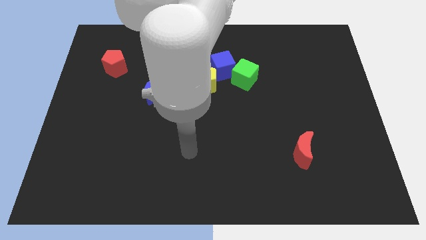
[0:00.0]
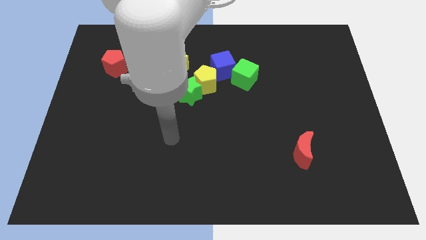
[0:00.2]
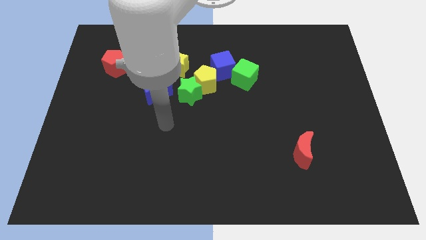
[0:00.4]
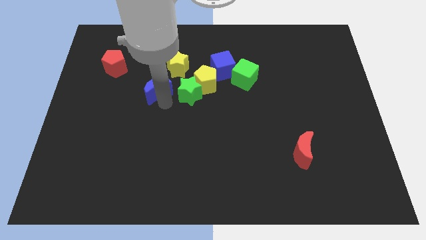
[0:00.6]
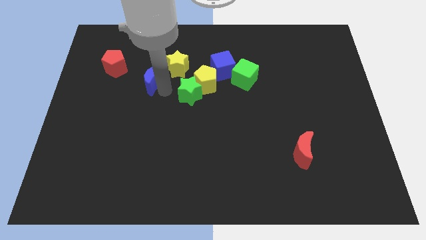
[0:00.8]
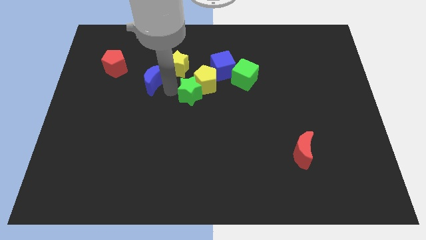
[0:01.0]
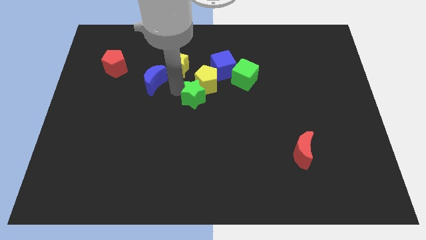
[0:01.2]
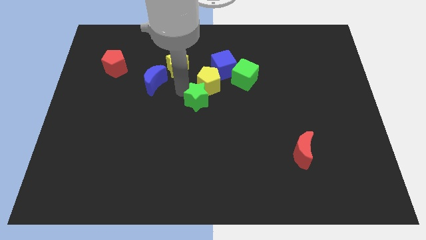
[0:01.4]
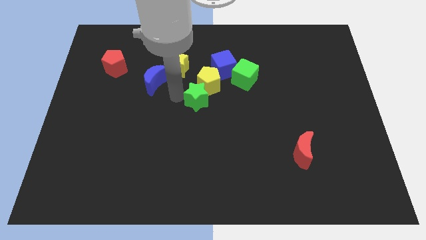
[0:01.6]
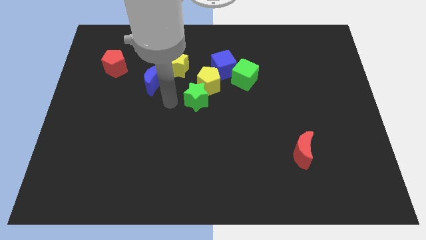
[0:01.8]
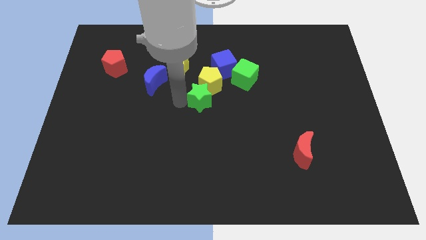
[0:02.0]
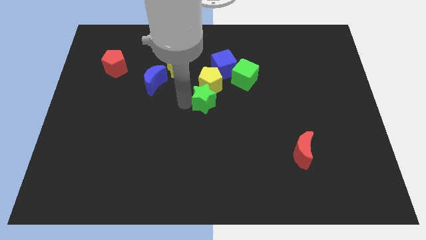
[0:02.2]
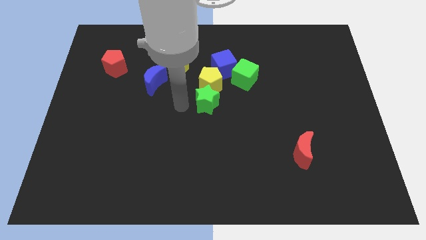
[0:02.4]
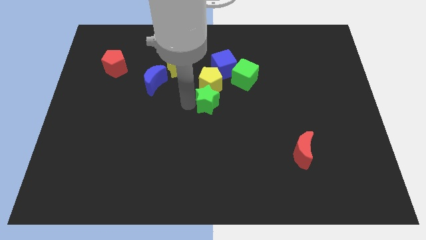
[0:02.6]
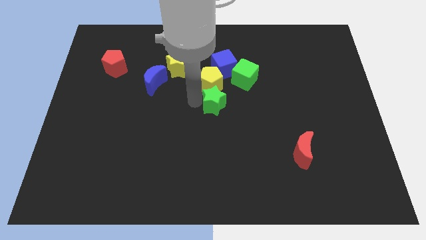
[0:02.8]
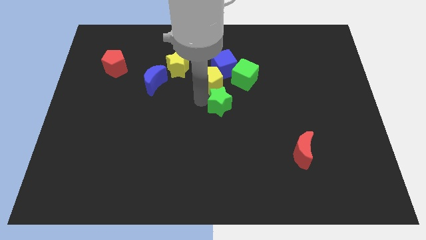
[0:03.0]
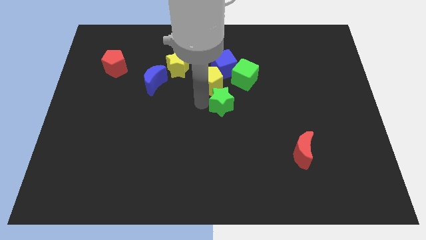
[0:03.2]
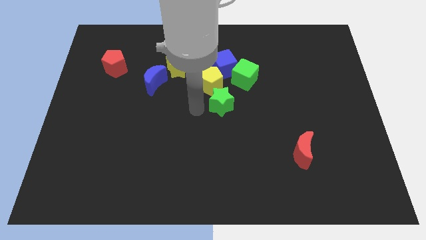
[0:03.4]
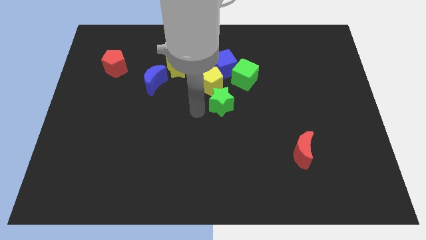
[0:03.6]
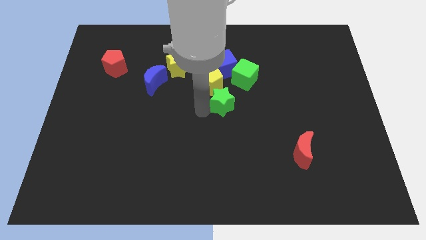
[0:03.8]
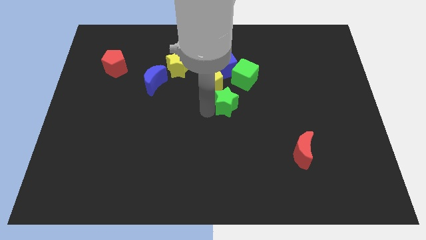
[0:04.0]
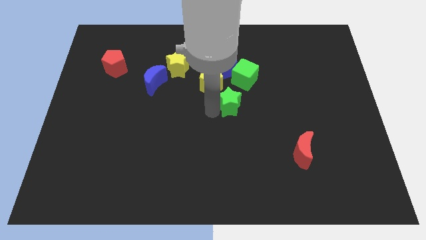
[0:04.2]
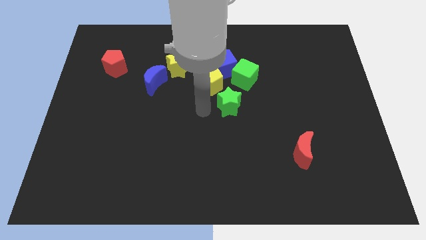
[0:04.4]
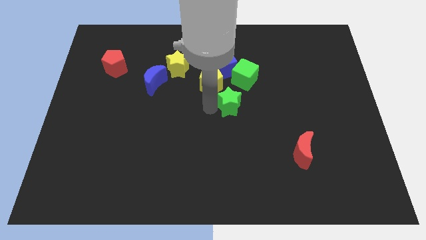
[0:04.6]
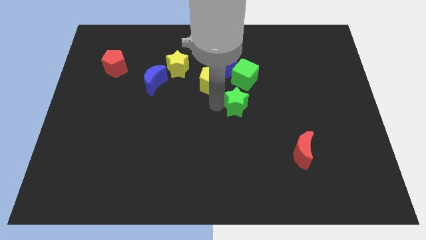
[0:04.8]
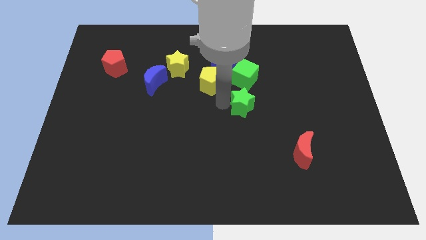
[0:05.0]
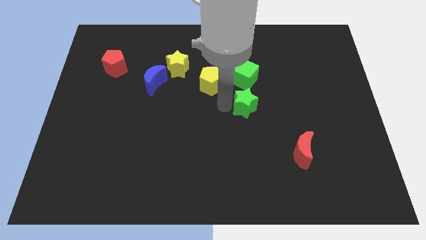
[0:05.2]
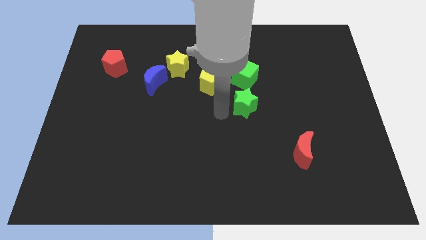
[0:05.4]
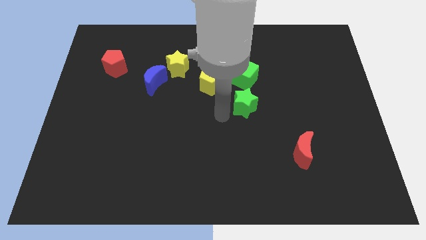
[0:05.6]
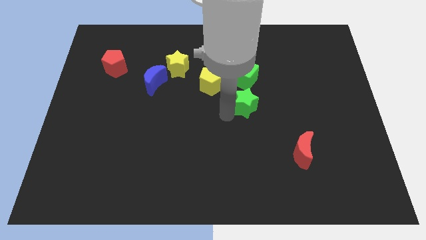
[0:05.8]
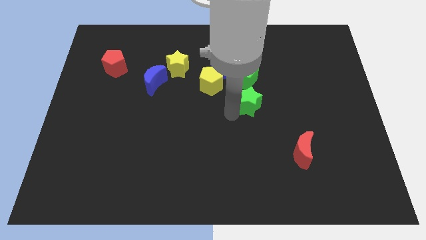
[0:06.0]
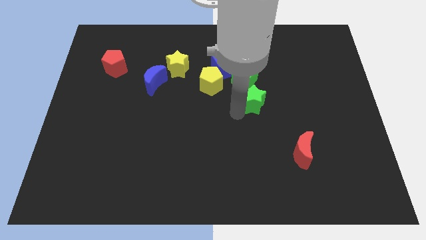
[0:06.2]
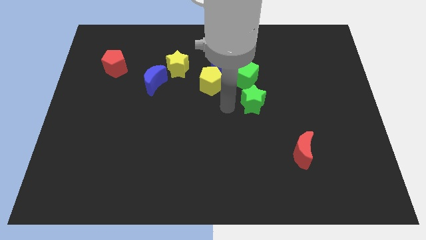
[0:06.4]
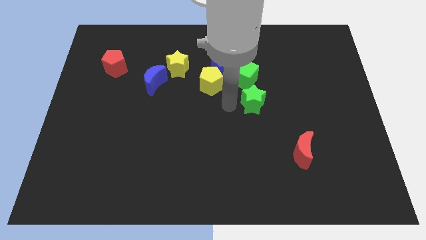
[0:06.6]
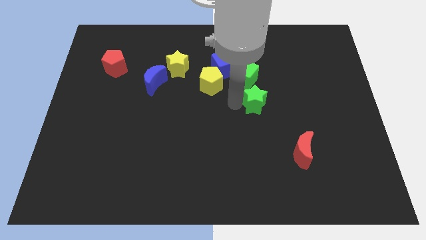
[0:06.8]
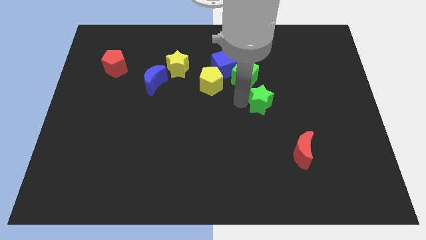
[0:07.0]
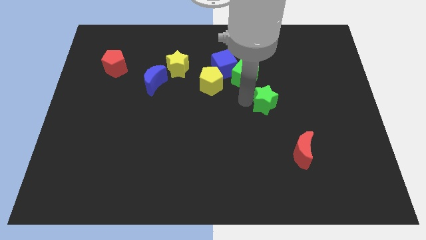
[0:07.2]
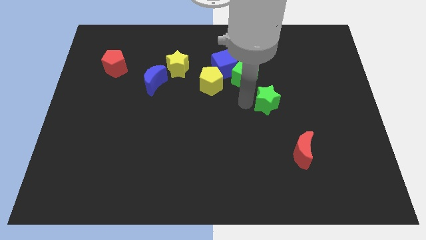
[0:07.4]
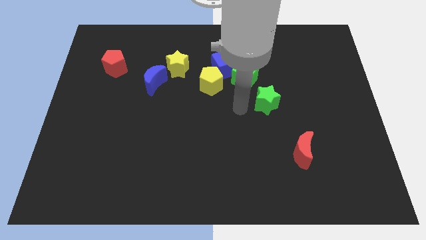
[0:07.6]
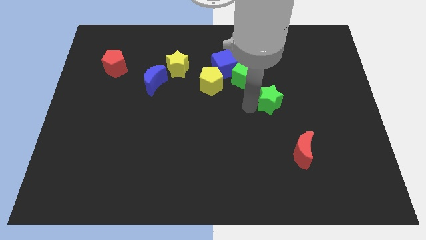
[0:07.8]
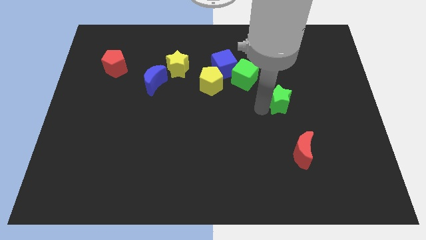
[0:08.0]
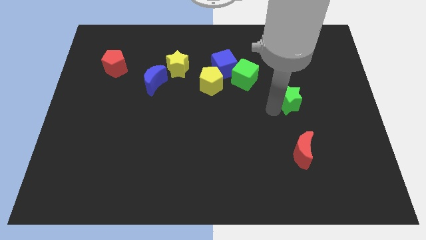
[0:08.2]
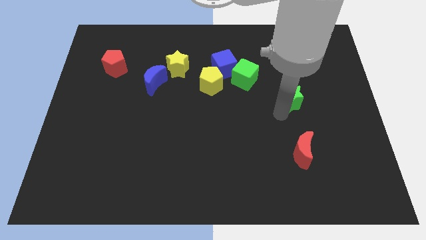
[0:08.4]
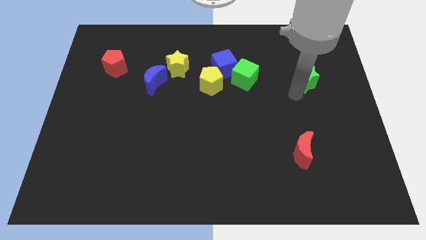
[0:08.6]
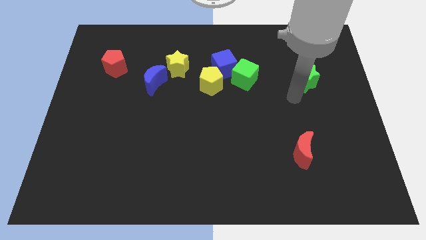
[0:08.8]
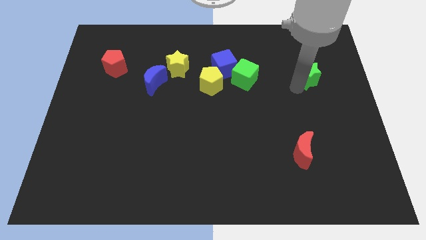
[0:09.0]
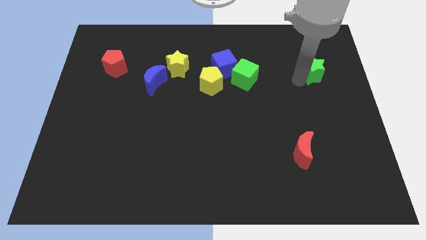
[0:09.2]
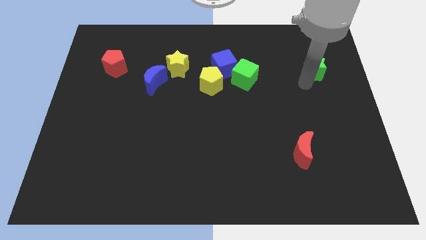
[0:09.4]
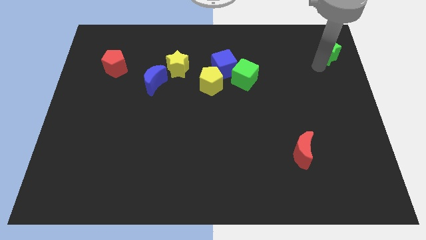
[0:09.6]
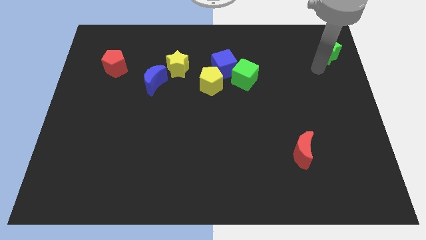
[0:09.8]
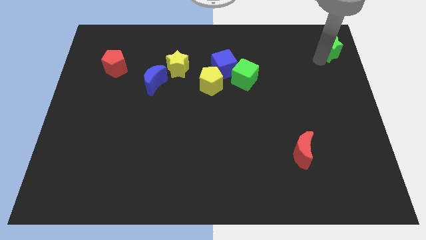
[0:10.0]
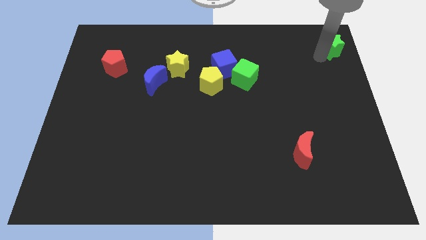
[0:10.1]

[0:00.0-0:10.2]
move the green star to the top right

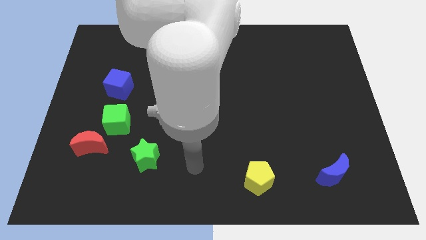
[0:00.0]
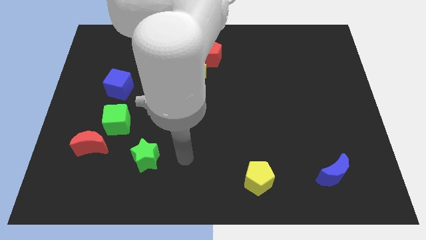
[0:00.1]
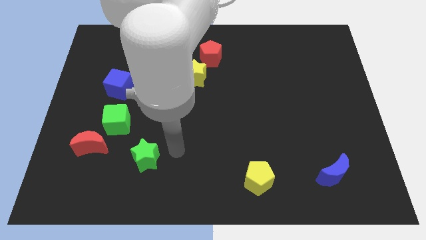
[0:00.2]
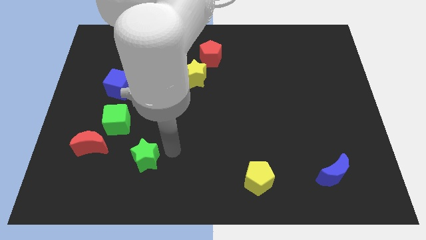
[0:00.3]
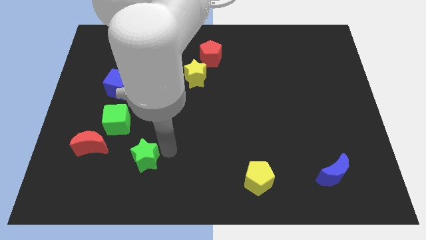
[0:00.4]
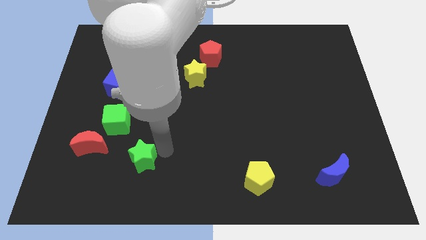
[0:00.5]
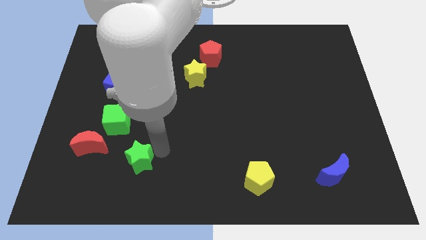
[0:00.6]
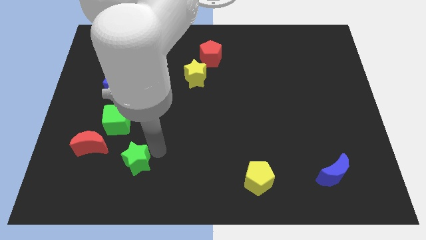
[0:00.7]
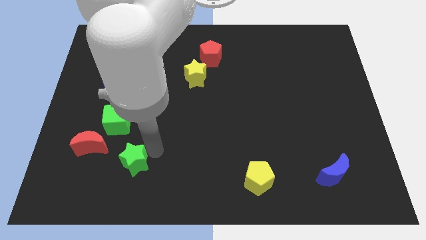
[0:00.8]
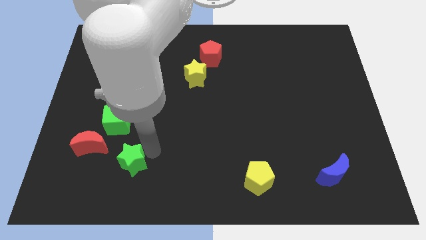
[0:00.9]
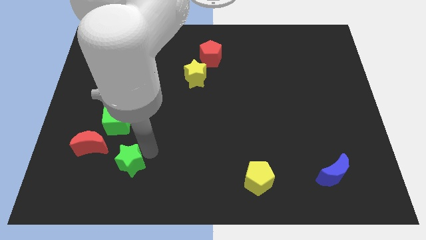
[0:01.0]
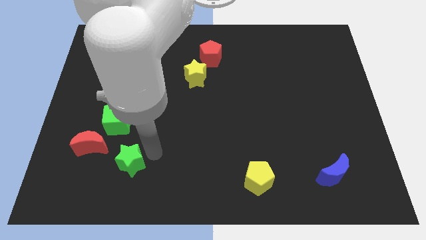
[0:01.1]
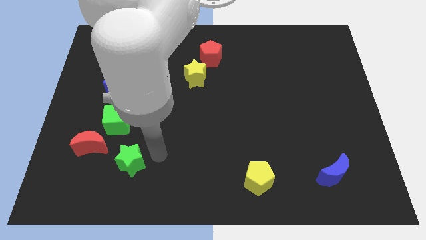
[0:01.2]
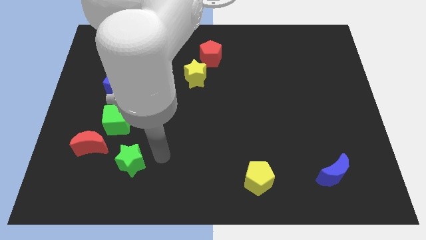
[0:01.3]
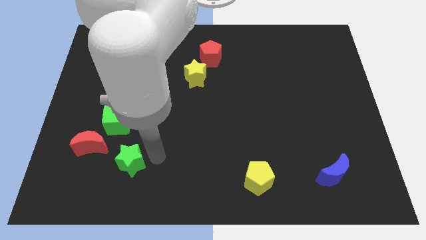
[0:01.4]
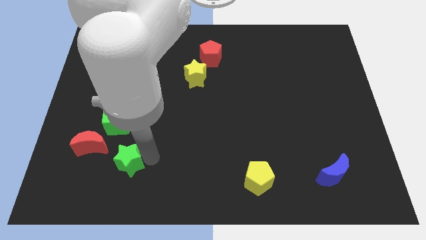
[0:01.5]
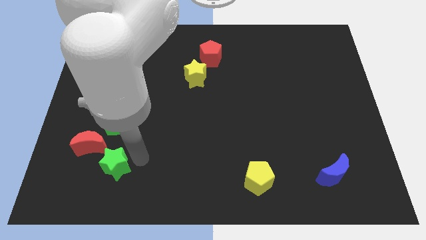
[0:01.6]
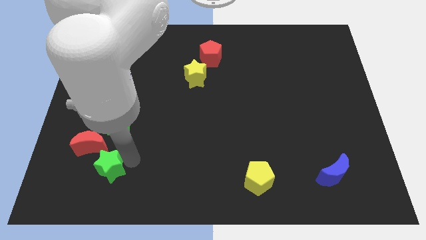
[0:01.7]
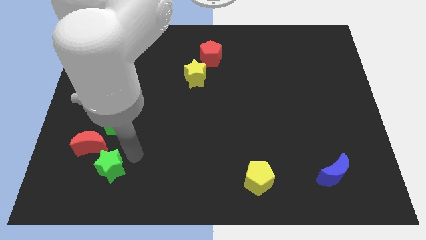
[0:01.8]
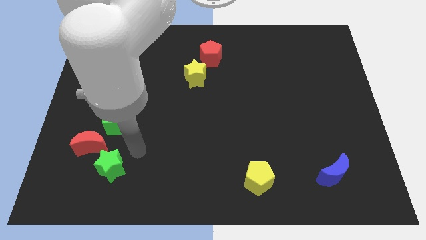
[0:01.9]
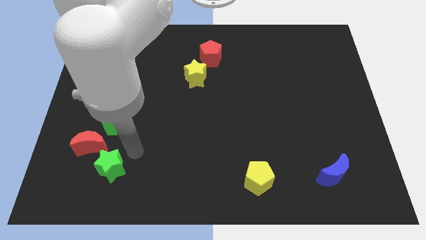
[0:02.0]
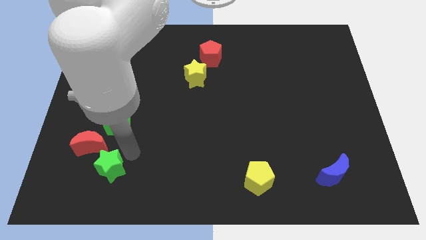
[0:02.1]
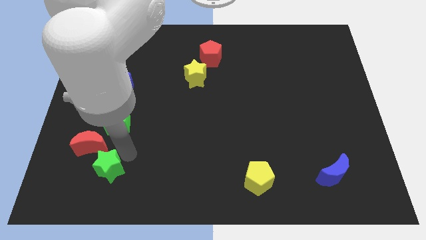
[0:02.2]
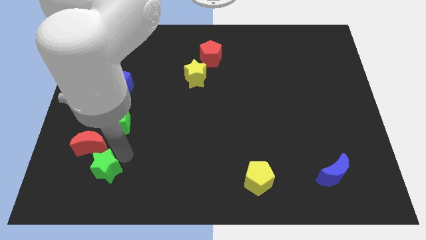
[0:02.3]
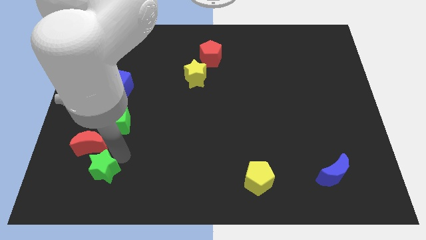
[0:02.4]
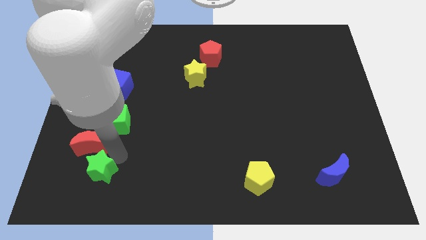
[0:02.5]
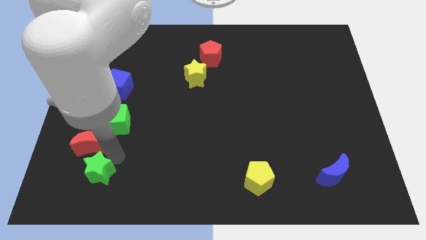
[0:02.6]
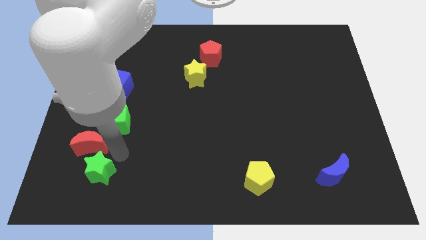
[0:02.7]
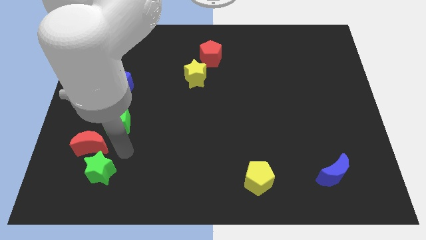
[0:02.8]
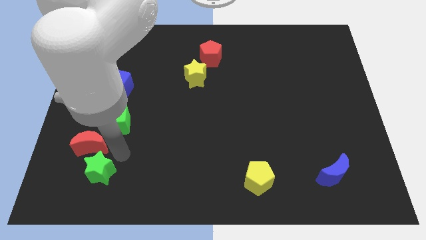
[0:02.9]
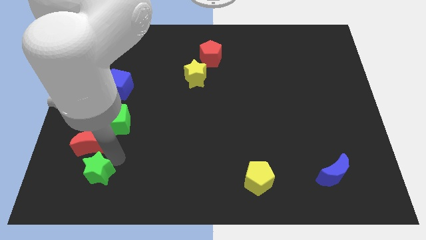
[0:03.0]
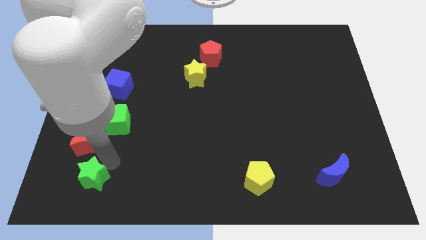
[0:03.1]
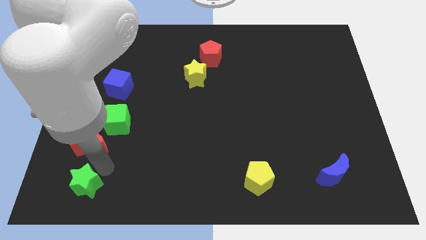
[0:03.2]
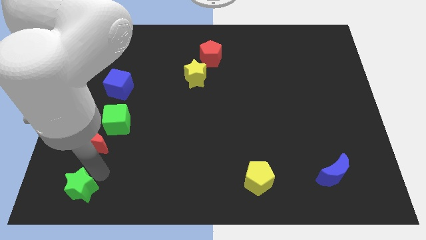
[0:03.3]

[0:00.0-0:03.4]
push the green star to the bottom left of the board
